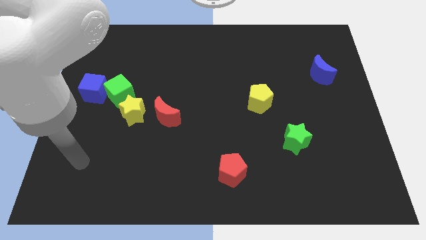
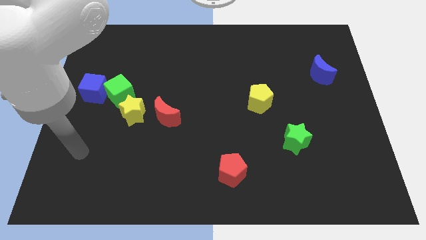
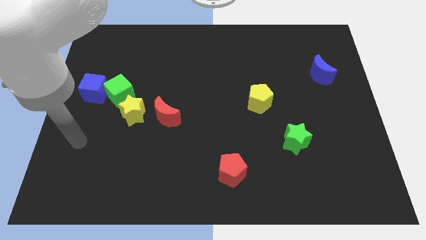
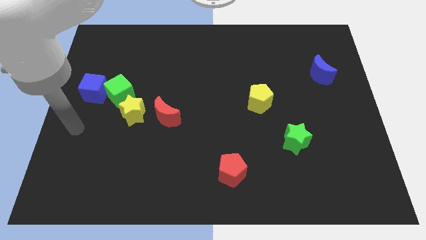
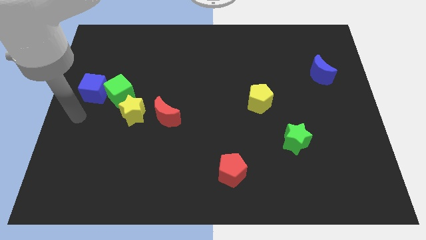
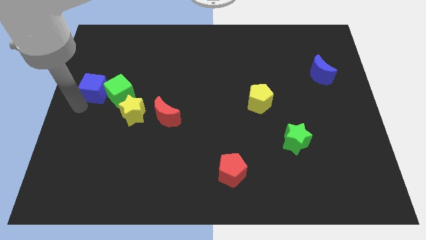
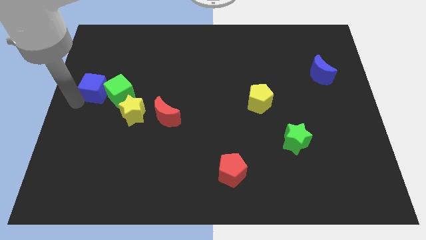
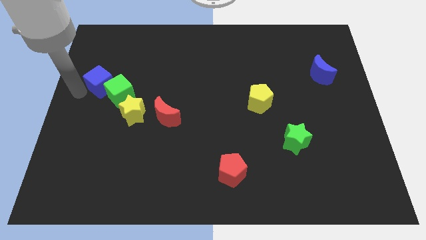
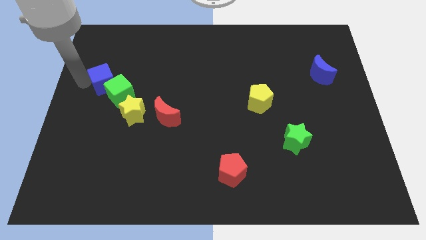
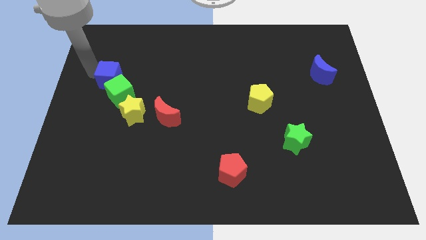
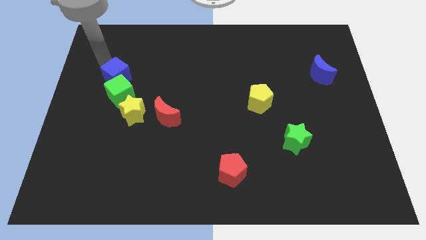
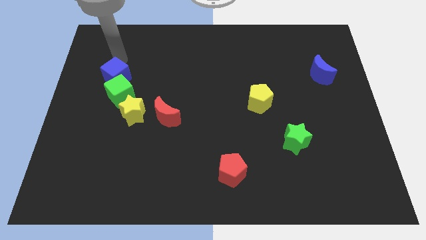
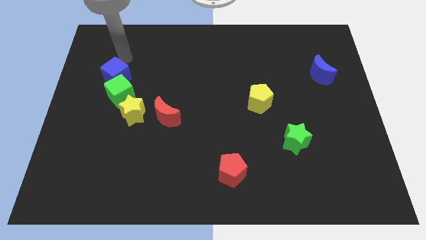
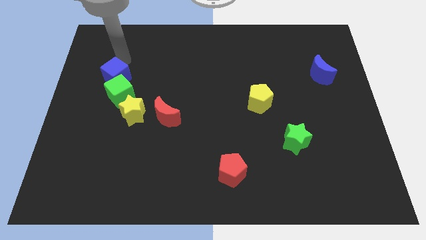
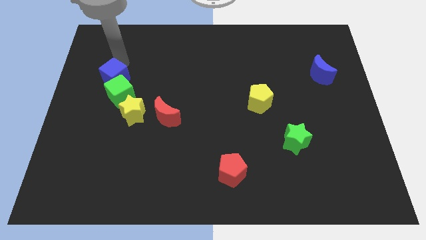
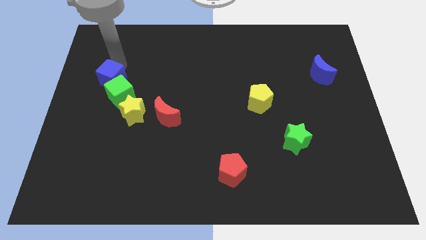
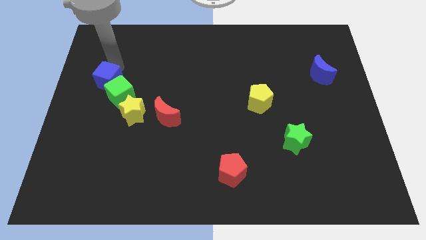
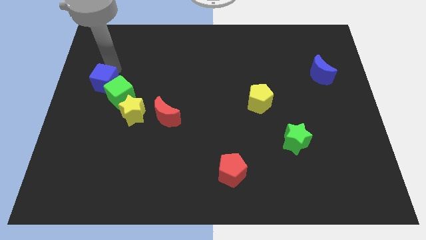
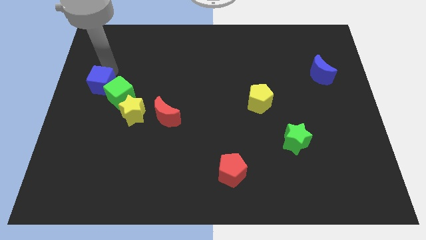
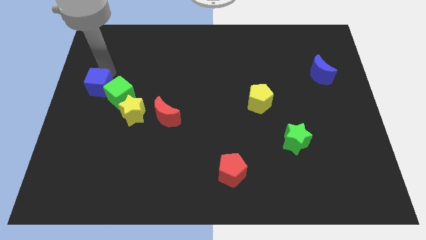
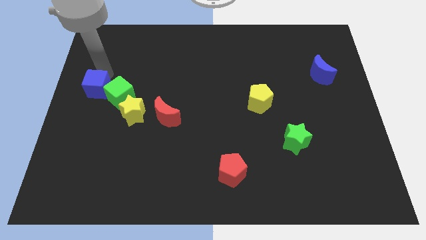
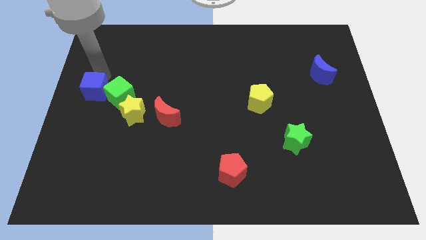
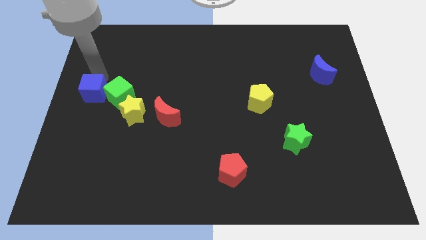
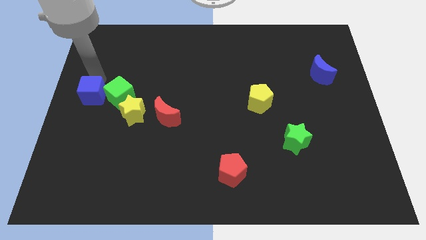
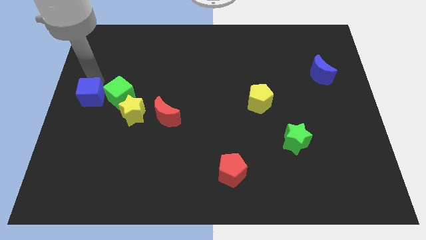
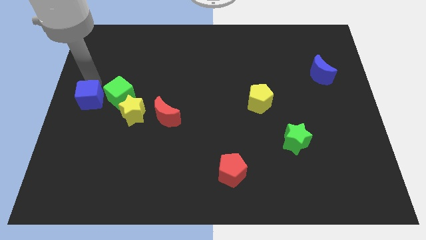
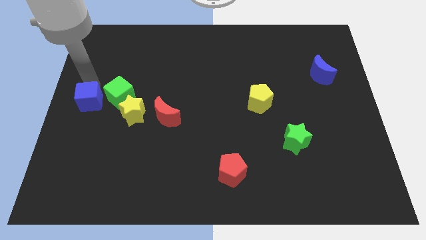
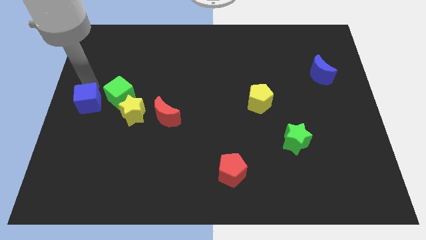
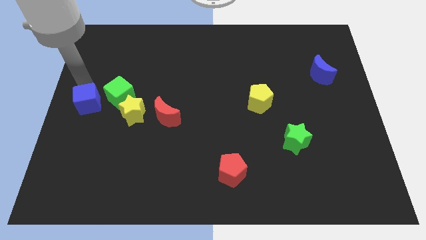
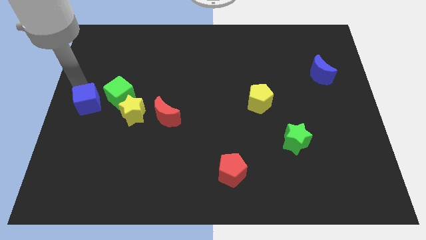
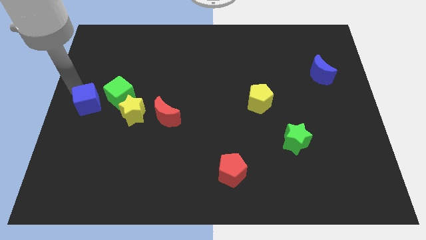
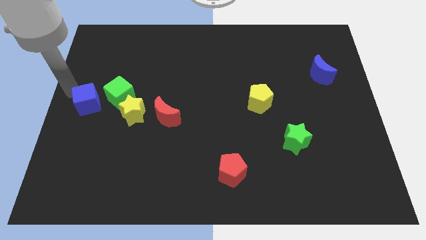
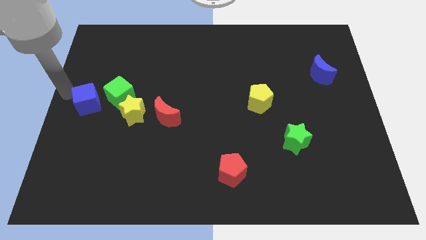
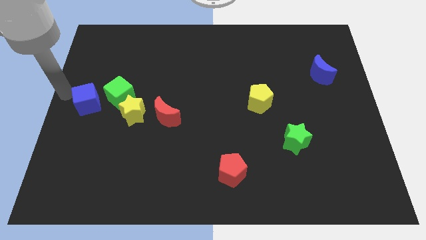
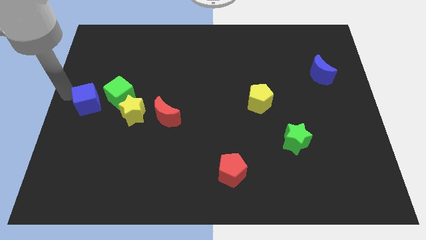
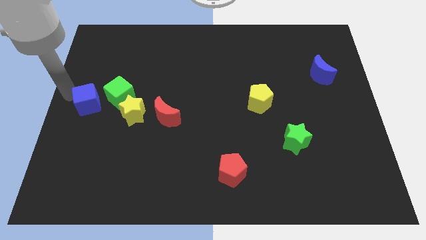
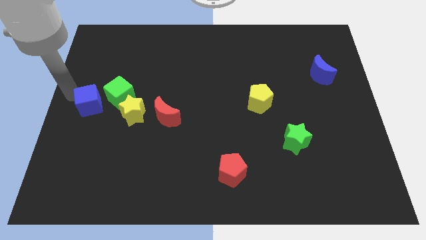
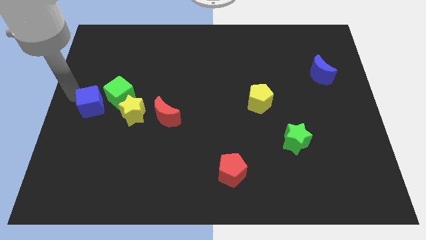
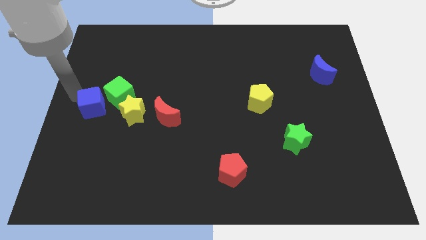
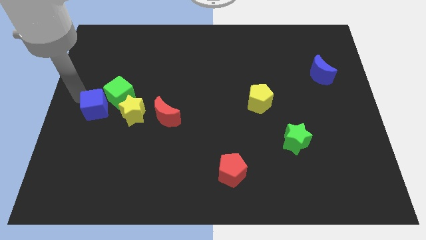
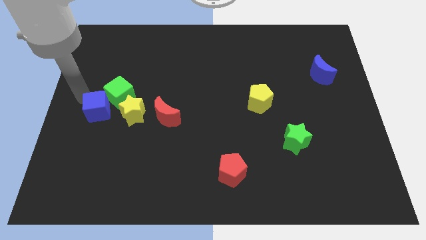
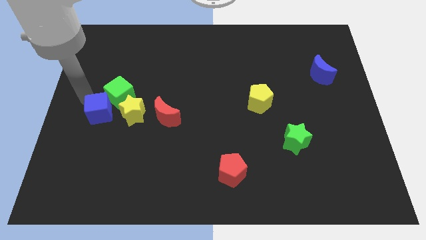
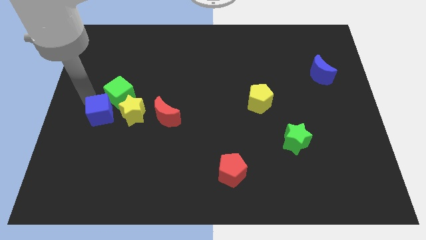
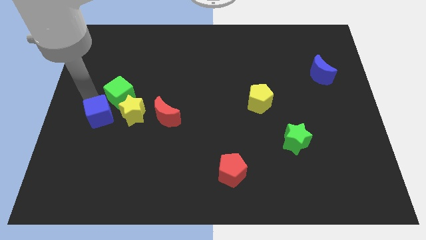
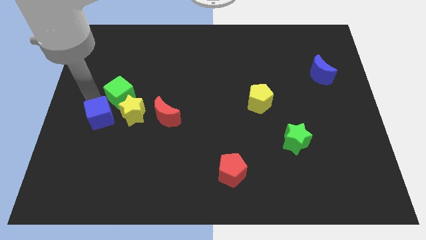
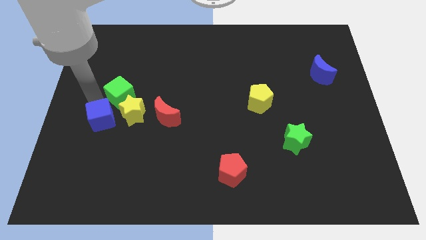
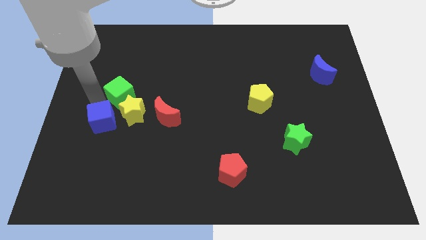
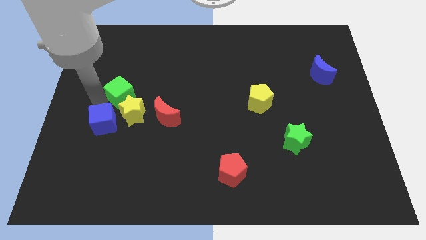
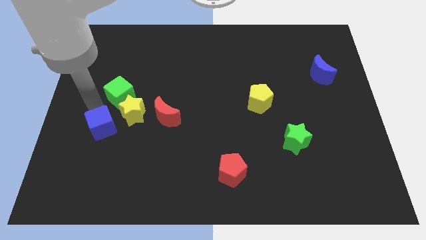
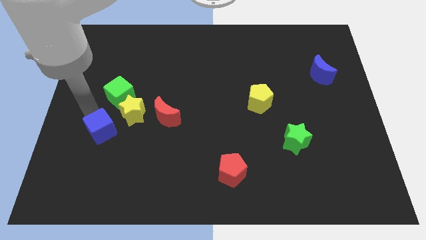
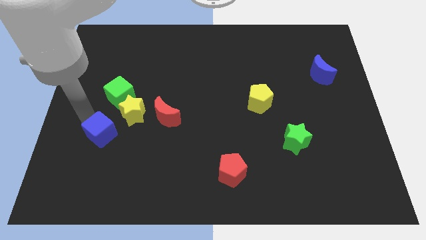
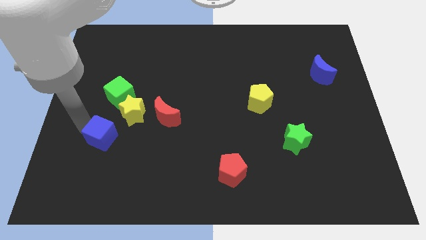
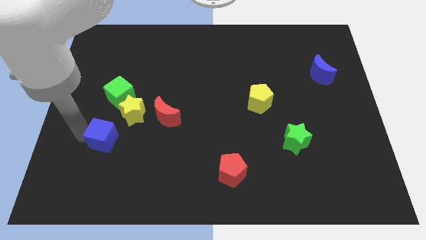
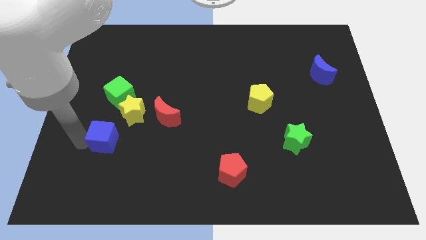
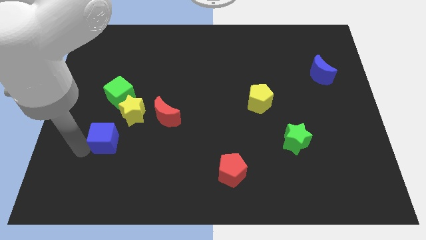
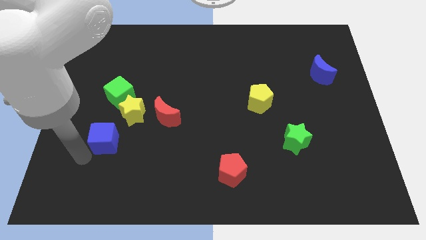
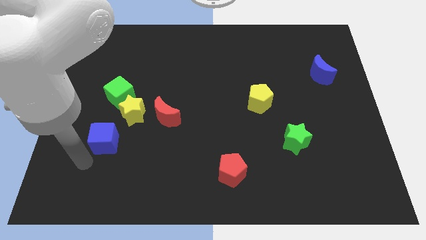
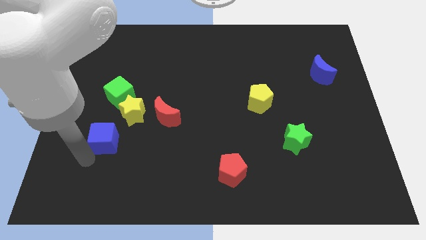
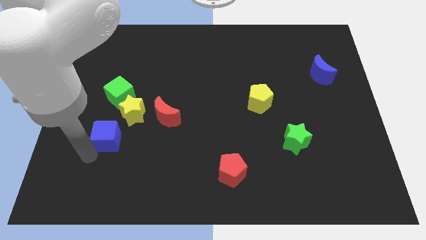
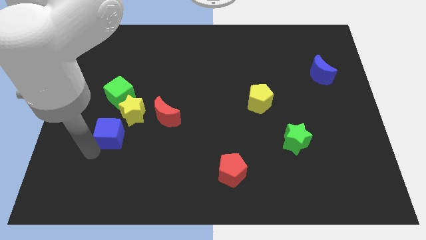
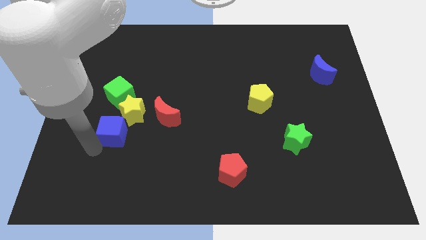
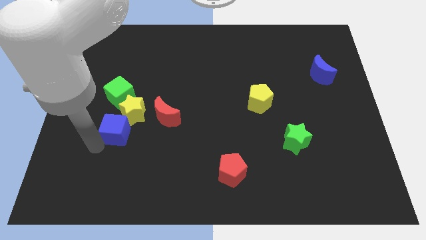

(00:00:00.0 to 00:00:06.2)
slide the blue cube to the yellow star
